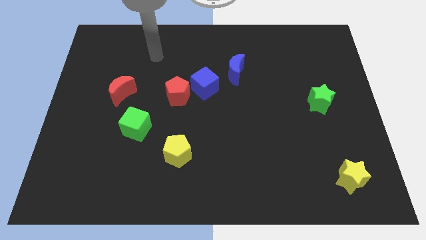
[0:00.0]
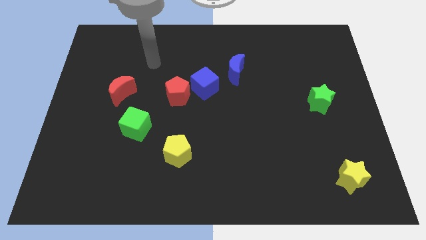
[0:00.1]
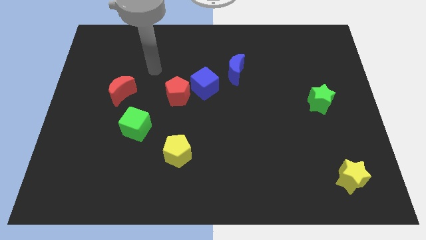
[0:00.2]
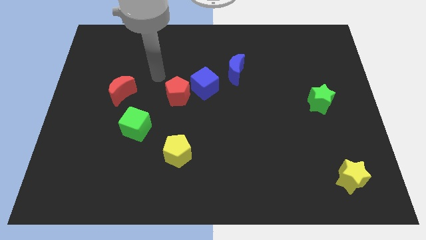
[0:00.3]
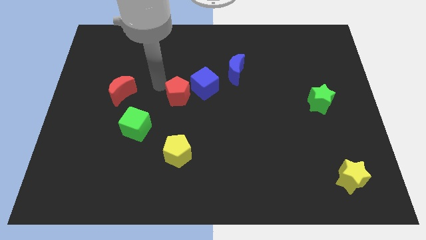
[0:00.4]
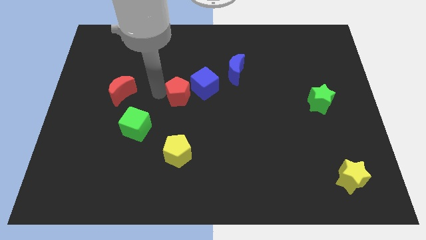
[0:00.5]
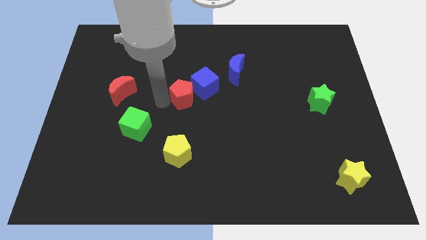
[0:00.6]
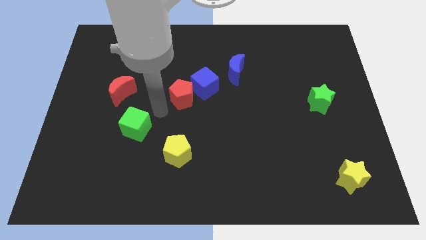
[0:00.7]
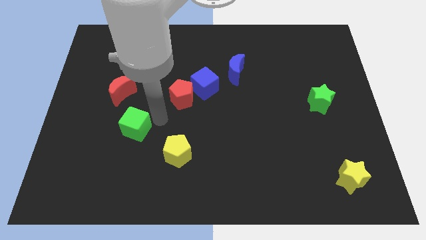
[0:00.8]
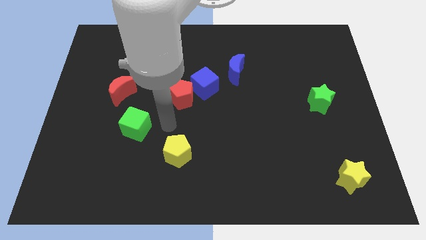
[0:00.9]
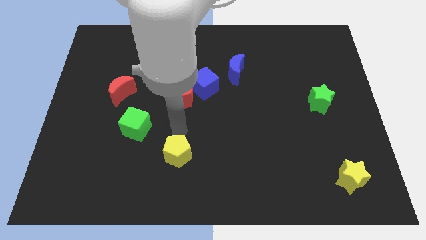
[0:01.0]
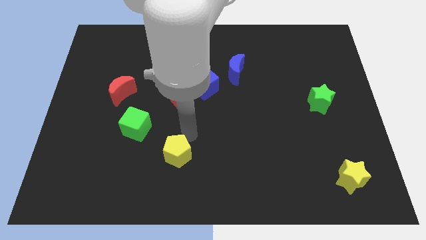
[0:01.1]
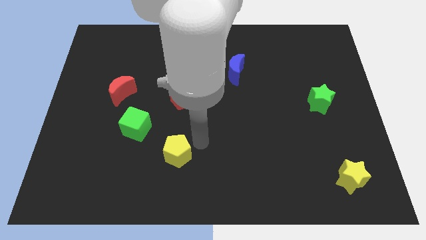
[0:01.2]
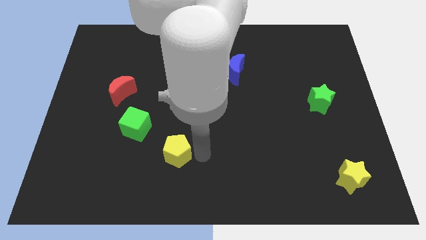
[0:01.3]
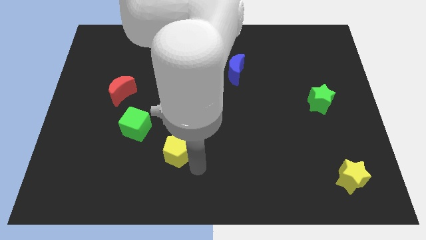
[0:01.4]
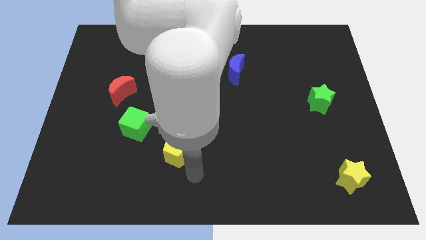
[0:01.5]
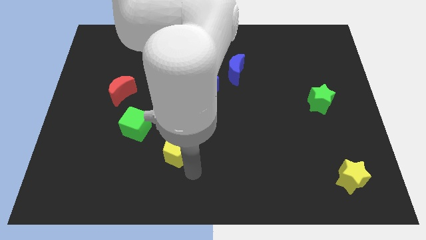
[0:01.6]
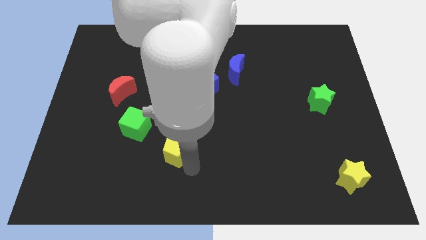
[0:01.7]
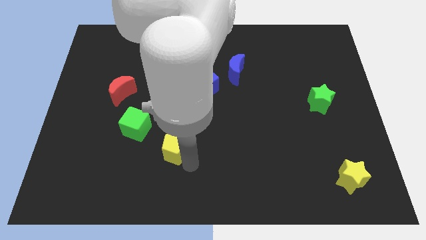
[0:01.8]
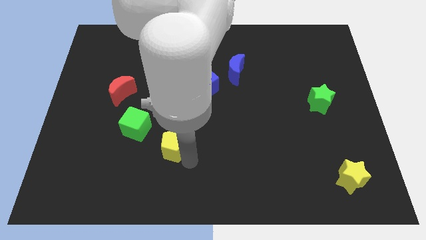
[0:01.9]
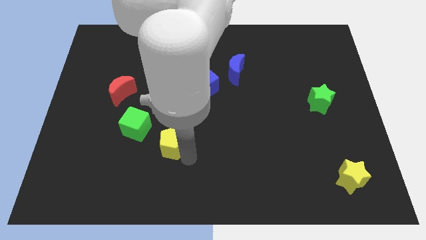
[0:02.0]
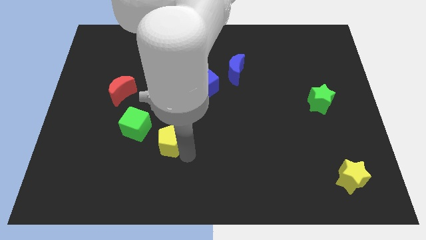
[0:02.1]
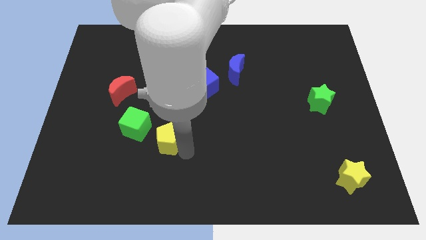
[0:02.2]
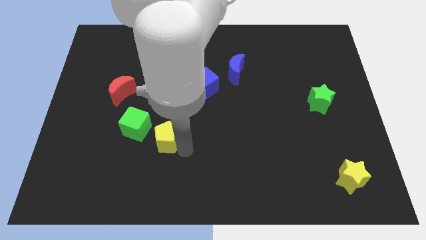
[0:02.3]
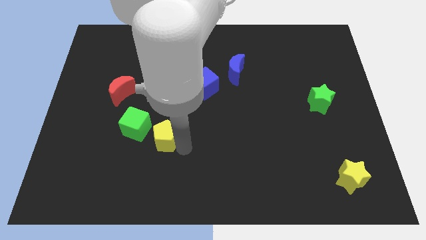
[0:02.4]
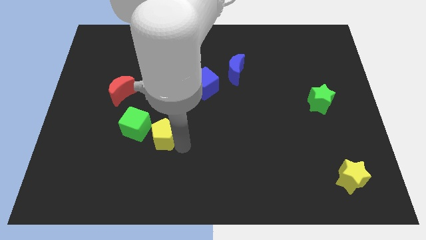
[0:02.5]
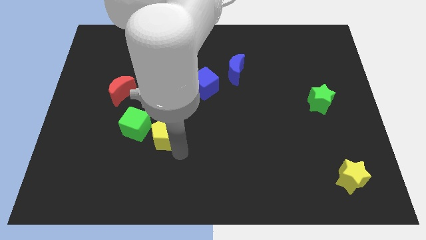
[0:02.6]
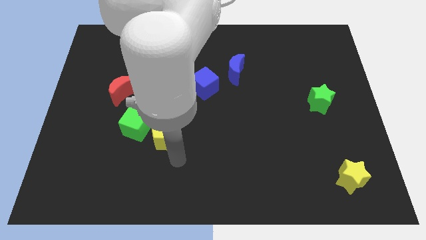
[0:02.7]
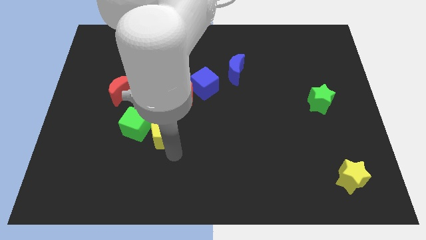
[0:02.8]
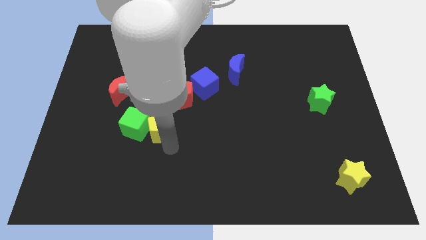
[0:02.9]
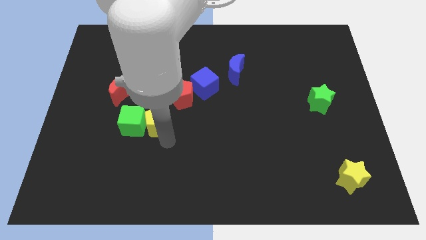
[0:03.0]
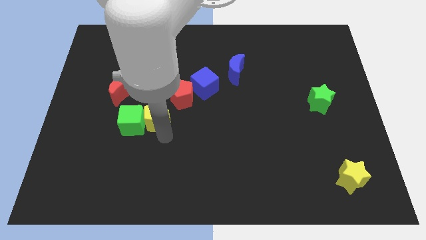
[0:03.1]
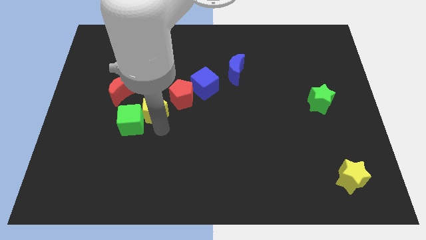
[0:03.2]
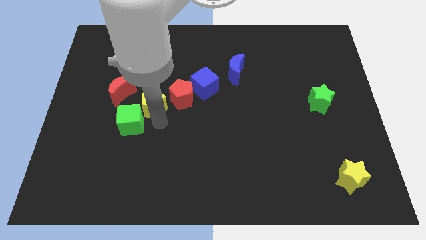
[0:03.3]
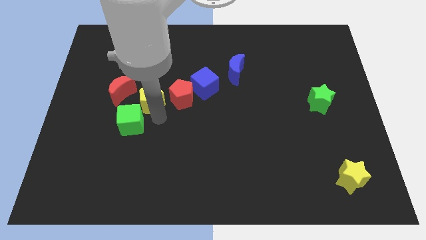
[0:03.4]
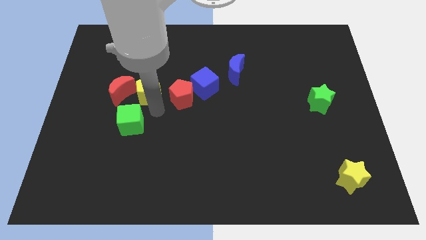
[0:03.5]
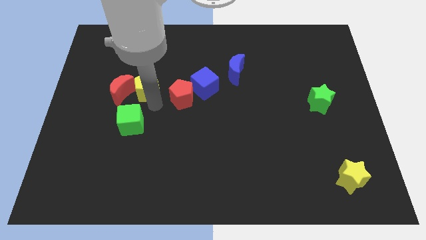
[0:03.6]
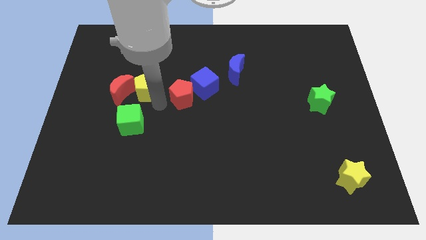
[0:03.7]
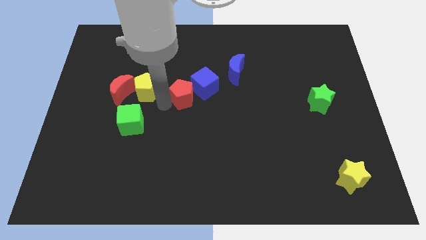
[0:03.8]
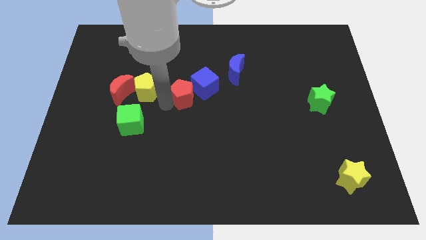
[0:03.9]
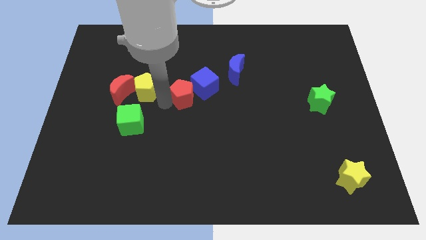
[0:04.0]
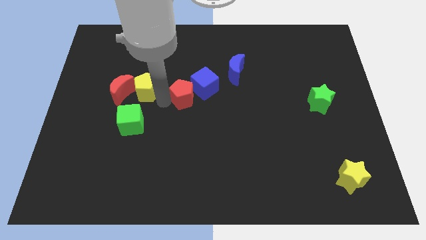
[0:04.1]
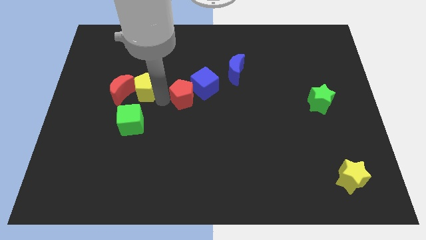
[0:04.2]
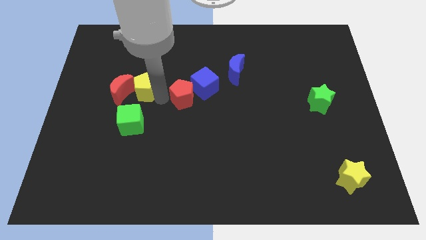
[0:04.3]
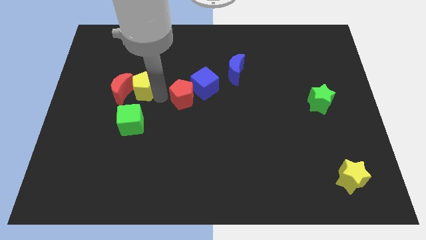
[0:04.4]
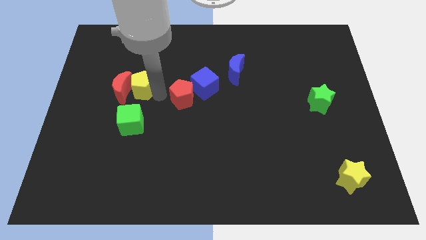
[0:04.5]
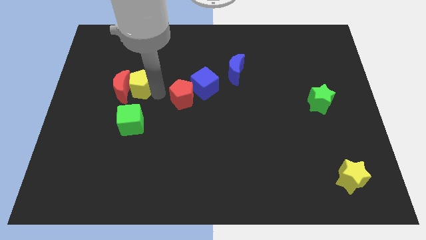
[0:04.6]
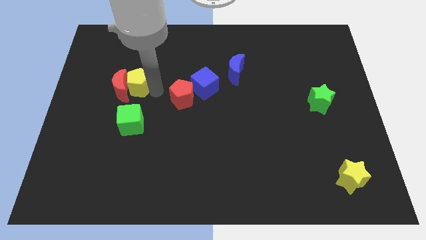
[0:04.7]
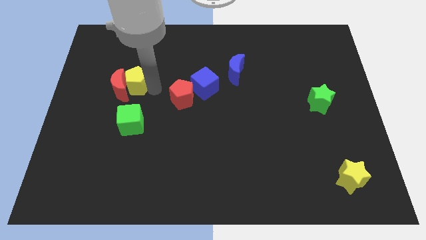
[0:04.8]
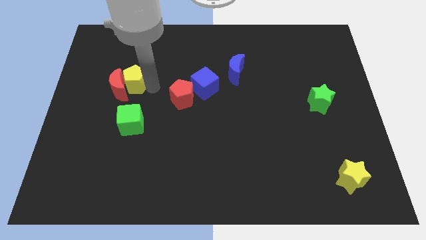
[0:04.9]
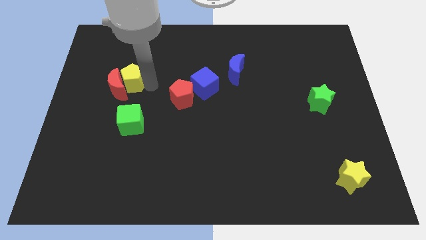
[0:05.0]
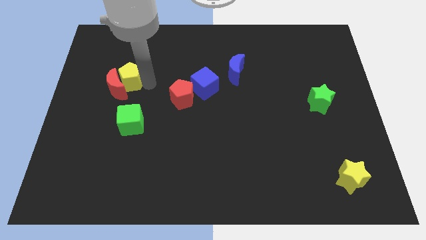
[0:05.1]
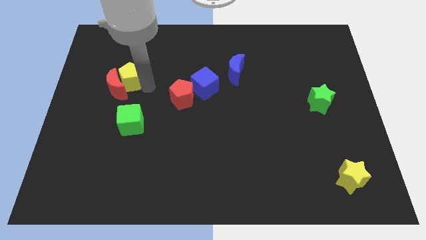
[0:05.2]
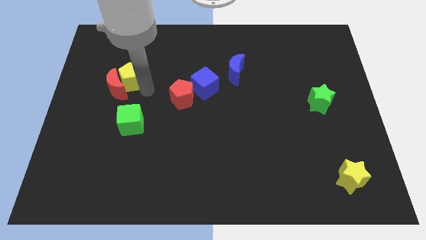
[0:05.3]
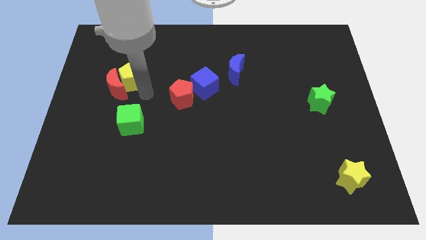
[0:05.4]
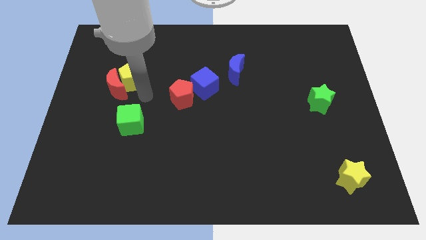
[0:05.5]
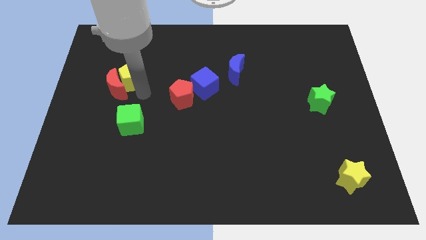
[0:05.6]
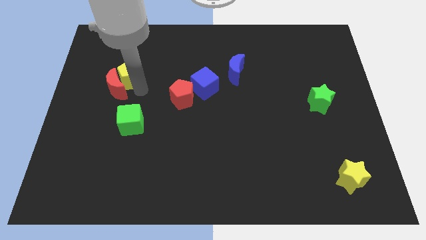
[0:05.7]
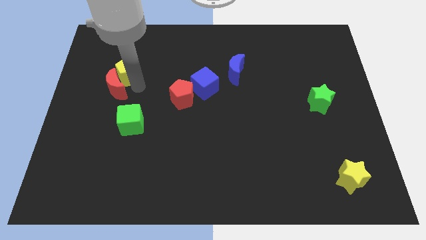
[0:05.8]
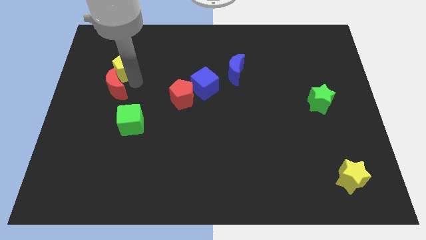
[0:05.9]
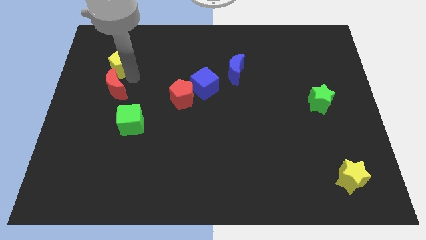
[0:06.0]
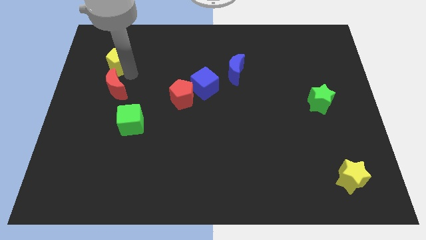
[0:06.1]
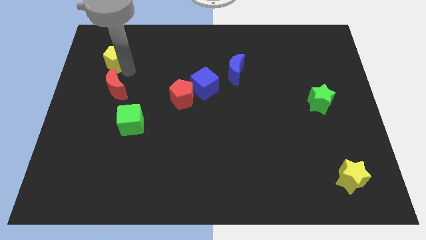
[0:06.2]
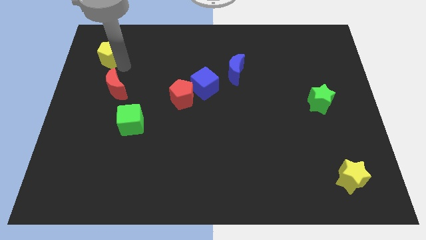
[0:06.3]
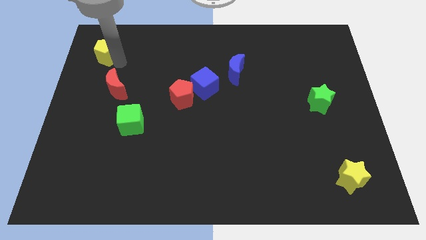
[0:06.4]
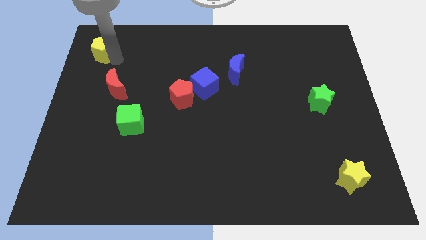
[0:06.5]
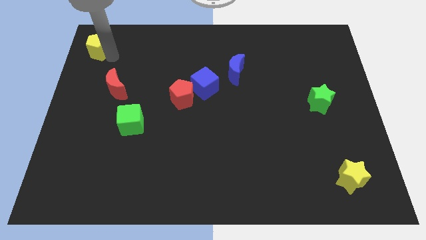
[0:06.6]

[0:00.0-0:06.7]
slide the yellow pentagon to the top left of the board
